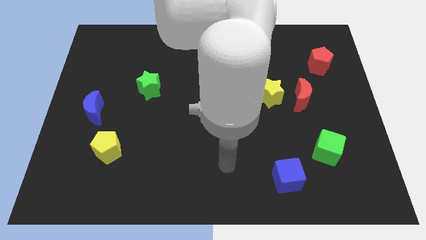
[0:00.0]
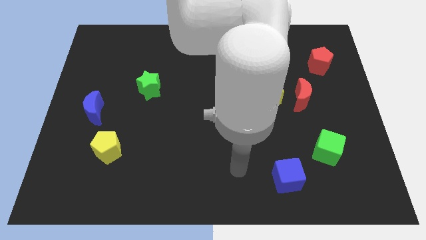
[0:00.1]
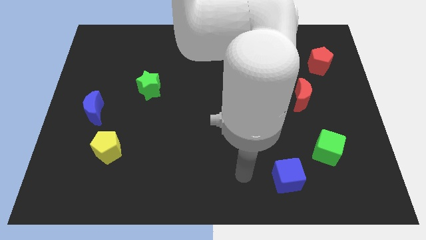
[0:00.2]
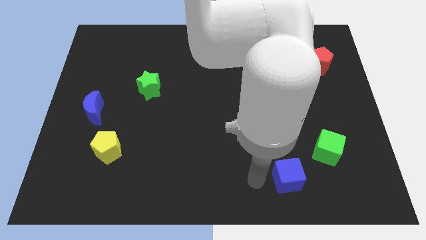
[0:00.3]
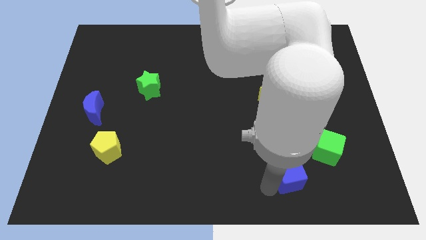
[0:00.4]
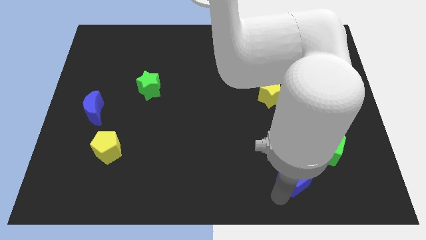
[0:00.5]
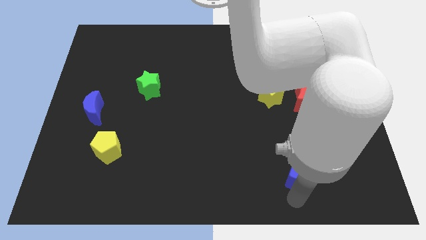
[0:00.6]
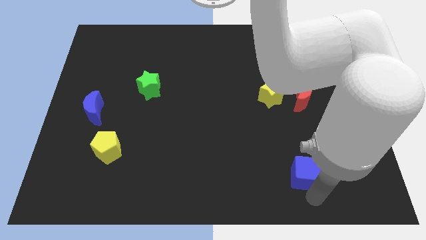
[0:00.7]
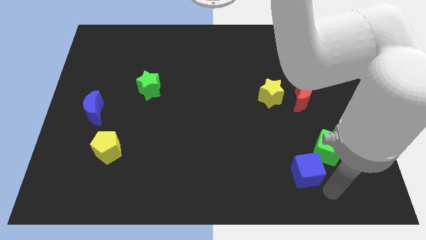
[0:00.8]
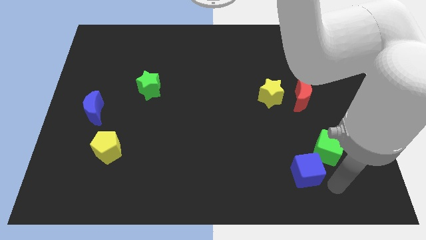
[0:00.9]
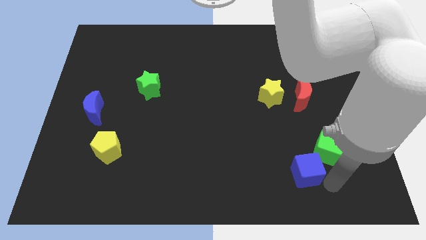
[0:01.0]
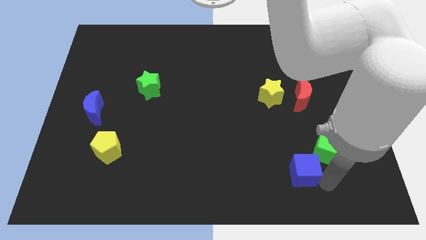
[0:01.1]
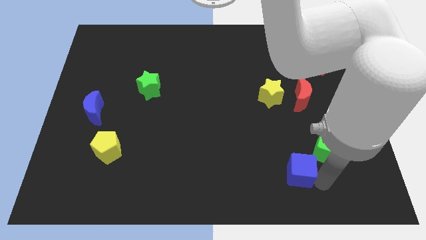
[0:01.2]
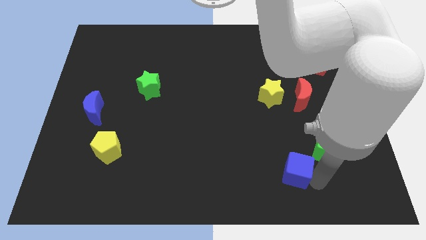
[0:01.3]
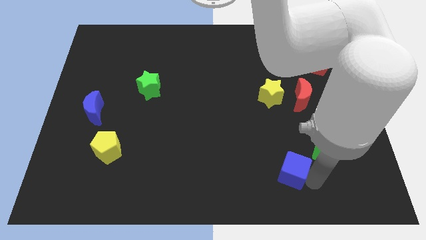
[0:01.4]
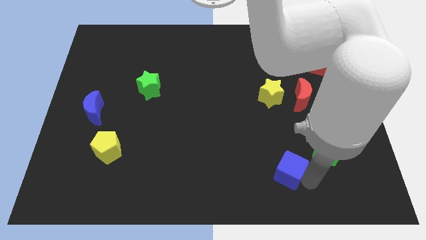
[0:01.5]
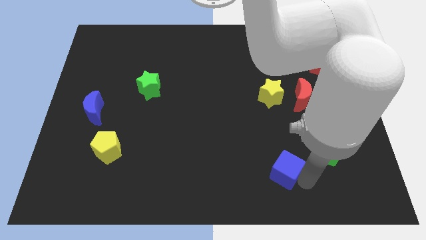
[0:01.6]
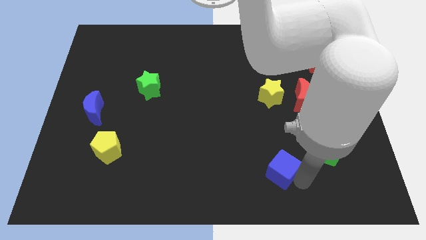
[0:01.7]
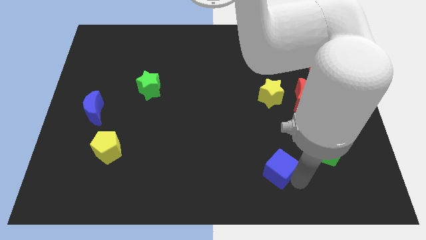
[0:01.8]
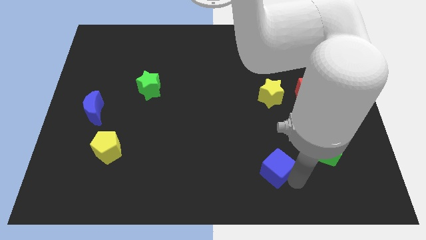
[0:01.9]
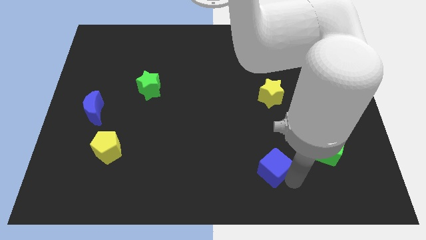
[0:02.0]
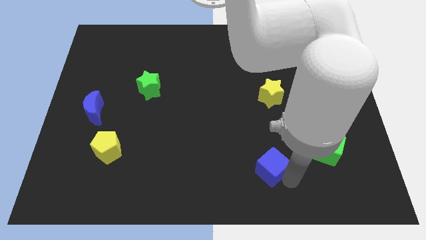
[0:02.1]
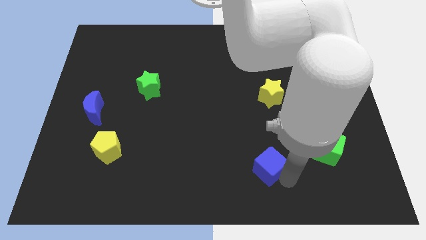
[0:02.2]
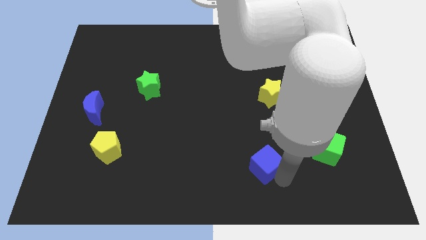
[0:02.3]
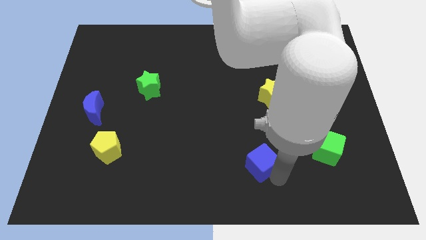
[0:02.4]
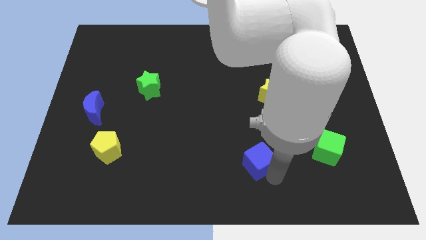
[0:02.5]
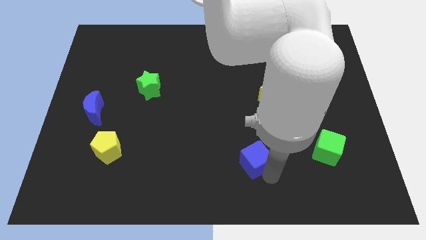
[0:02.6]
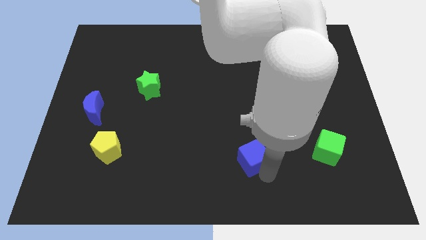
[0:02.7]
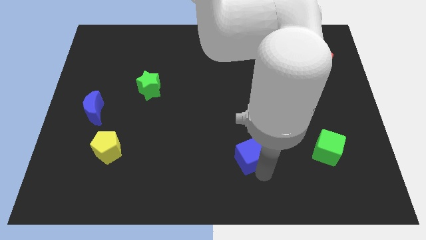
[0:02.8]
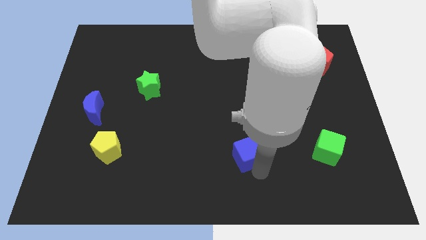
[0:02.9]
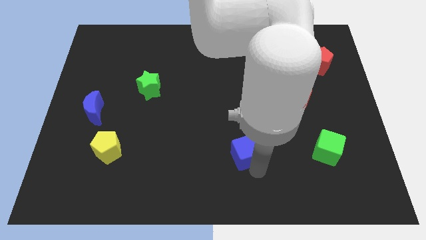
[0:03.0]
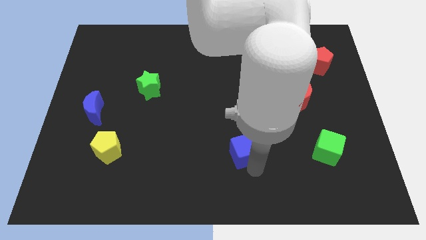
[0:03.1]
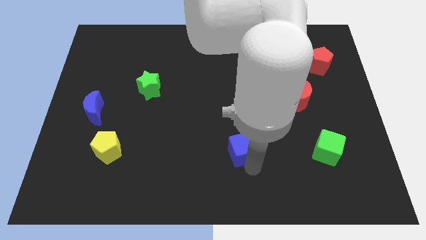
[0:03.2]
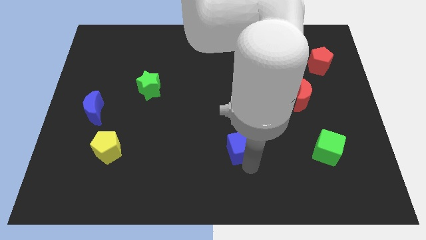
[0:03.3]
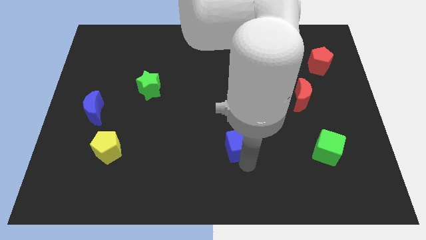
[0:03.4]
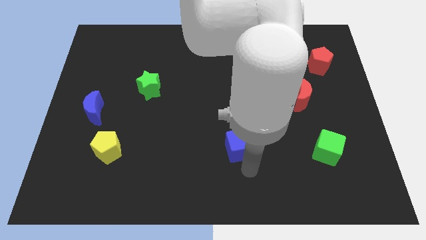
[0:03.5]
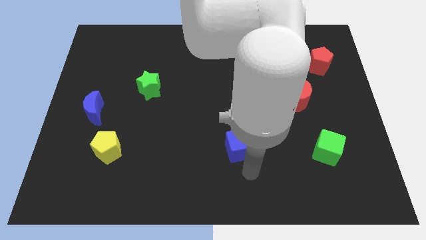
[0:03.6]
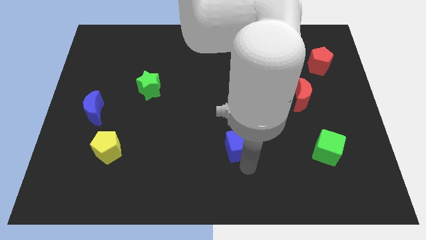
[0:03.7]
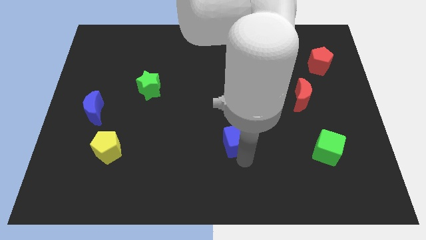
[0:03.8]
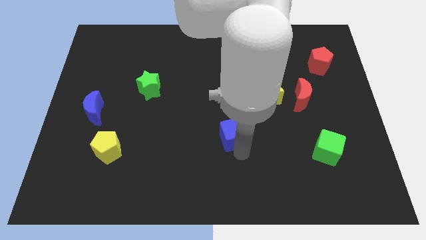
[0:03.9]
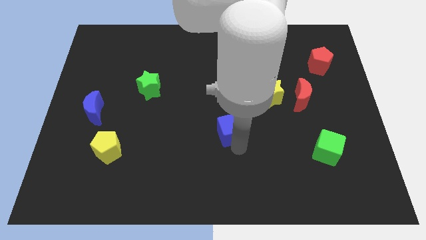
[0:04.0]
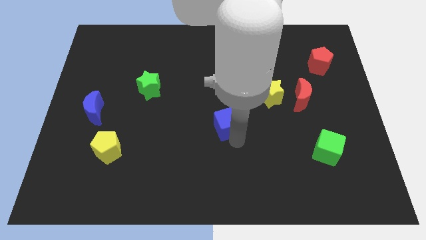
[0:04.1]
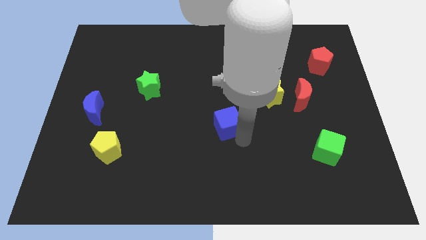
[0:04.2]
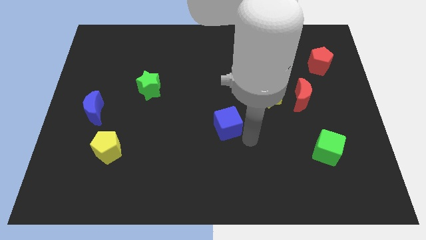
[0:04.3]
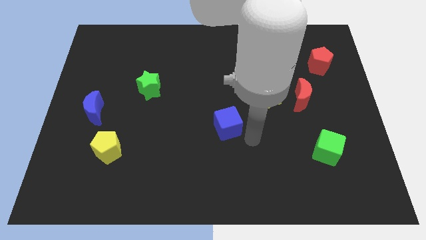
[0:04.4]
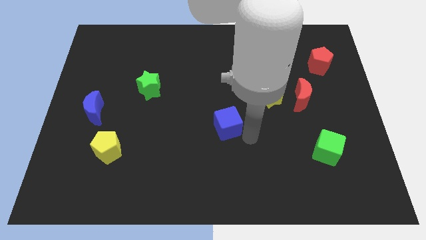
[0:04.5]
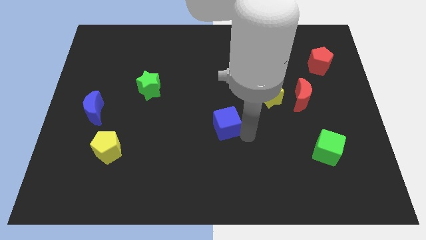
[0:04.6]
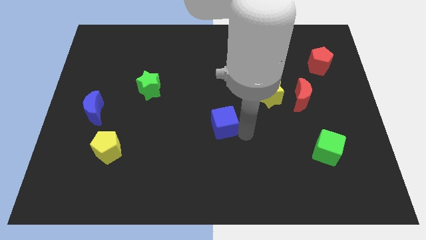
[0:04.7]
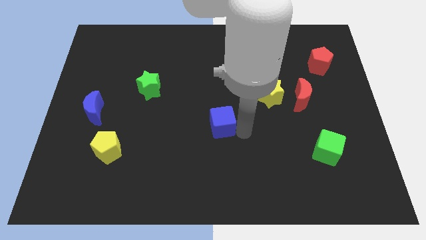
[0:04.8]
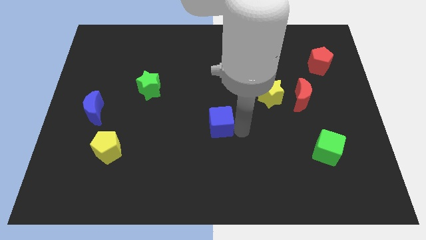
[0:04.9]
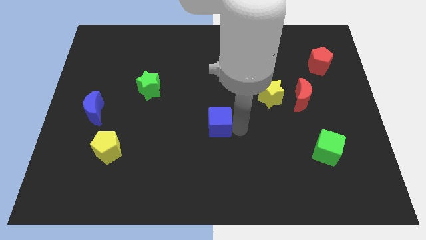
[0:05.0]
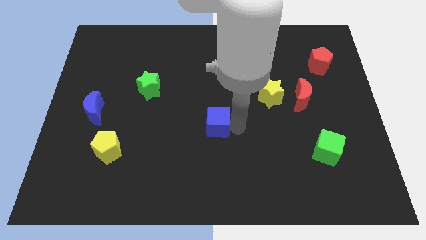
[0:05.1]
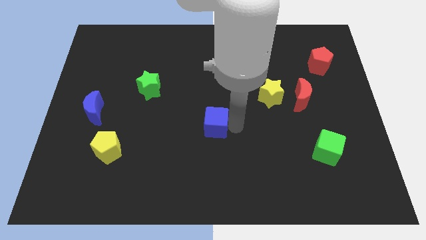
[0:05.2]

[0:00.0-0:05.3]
push the blue cube diagonally up and left

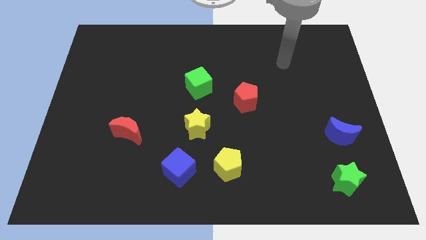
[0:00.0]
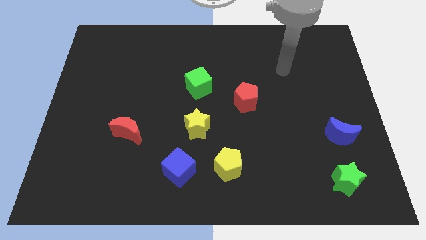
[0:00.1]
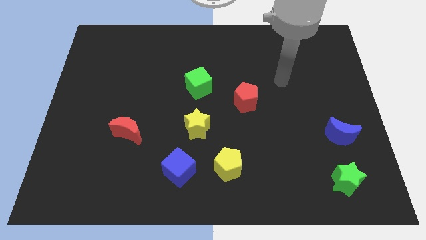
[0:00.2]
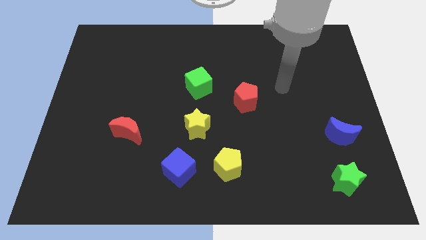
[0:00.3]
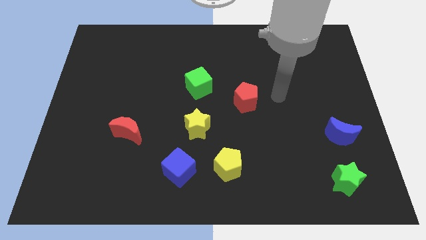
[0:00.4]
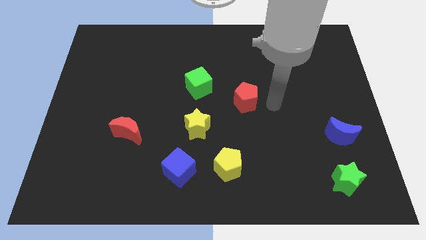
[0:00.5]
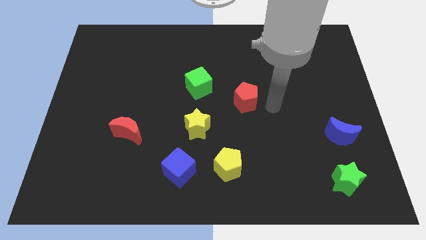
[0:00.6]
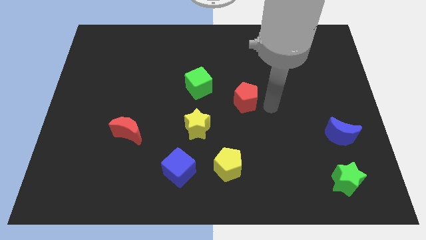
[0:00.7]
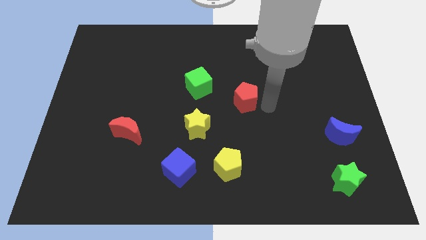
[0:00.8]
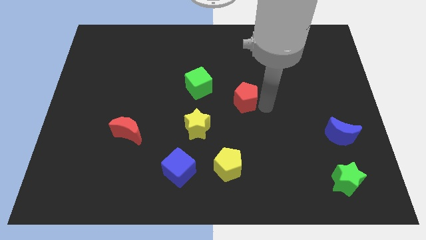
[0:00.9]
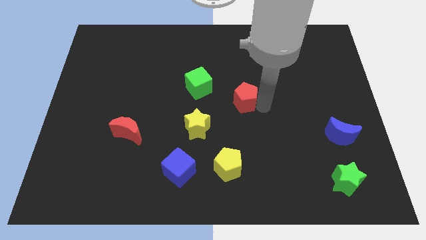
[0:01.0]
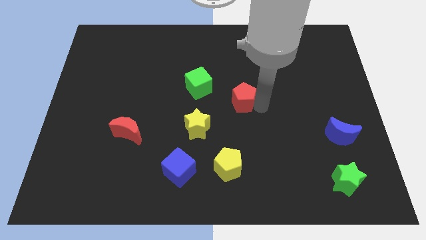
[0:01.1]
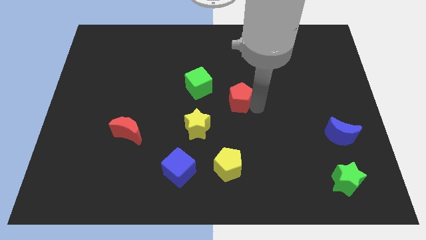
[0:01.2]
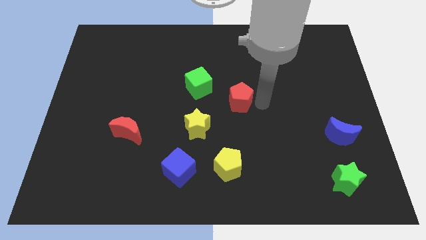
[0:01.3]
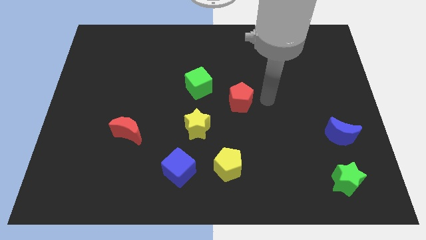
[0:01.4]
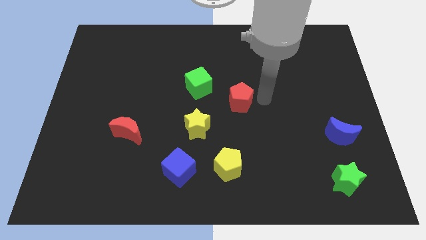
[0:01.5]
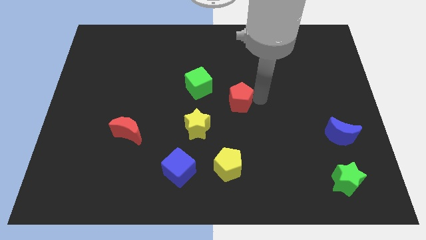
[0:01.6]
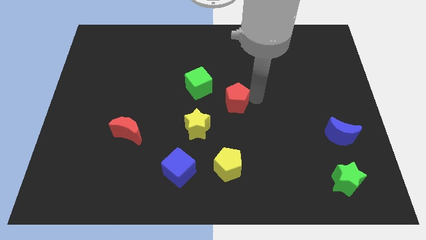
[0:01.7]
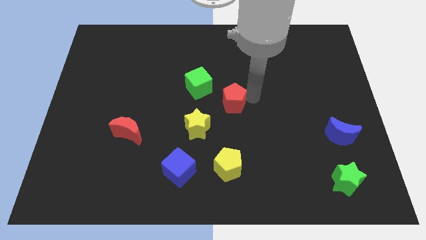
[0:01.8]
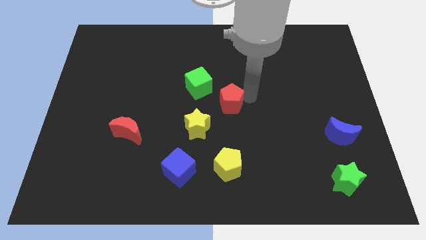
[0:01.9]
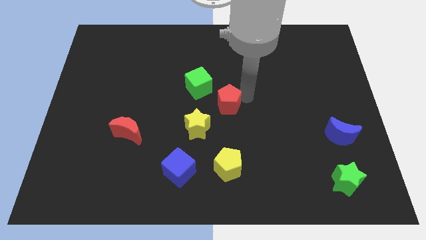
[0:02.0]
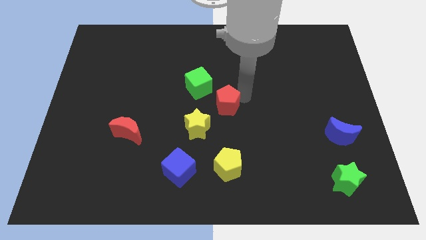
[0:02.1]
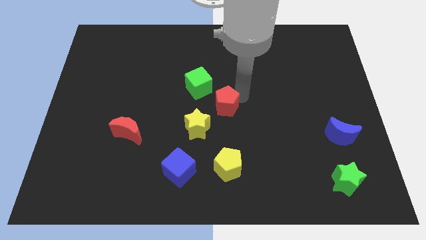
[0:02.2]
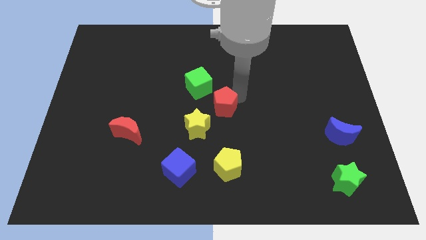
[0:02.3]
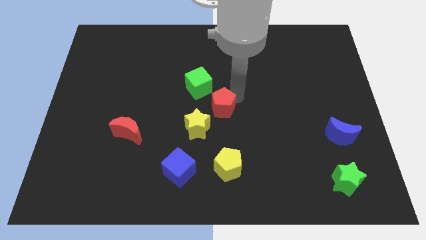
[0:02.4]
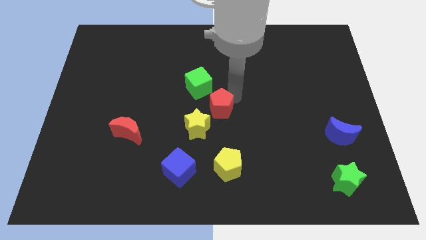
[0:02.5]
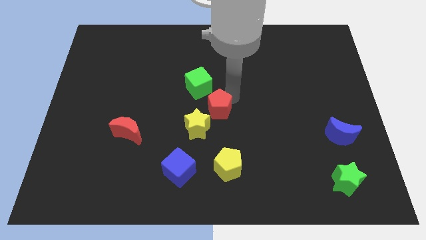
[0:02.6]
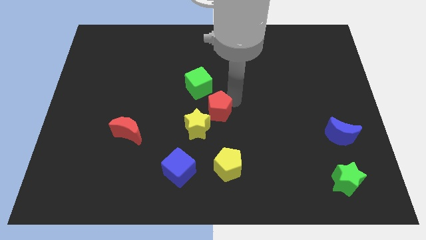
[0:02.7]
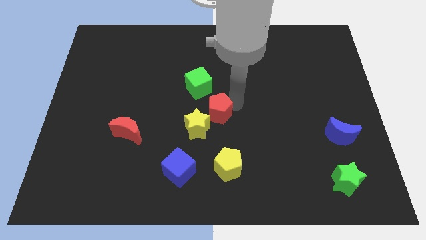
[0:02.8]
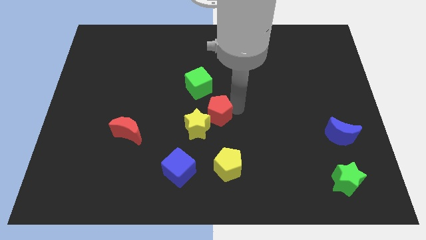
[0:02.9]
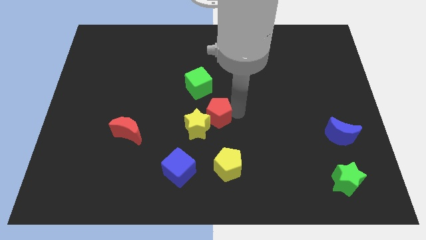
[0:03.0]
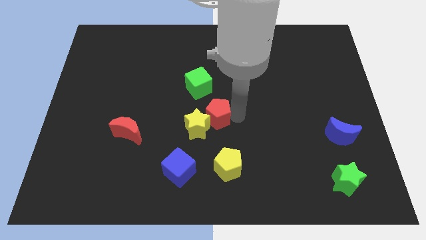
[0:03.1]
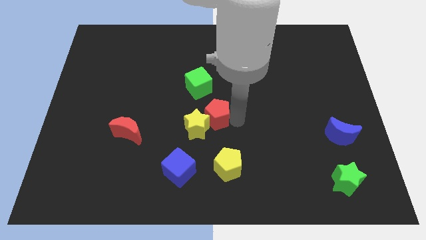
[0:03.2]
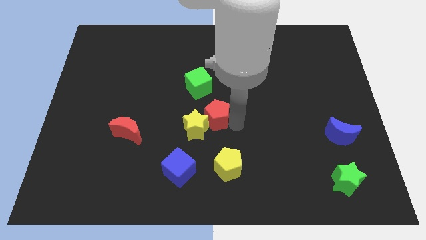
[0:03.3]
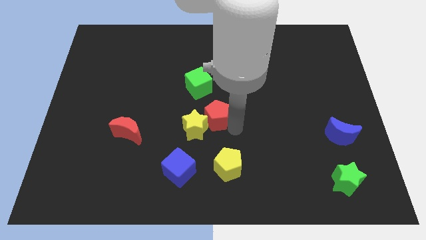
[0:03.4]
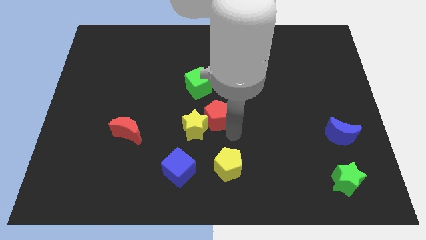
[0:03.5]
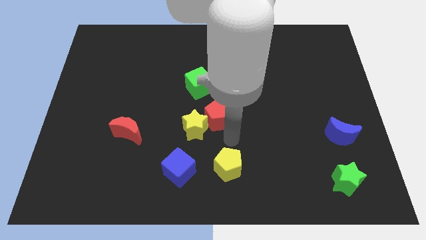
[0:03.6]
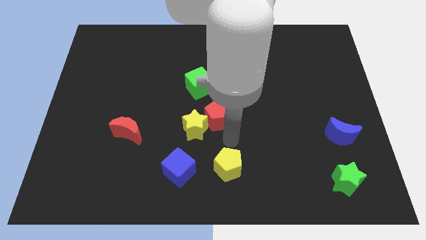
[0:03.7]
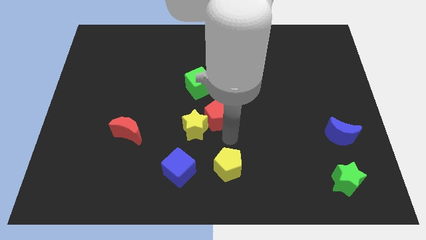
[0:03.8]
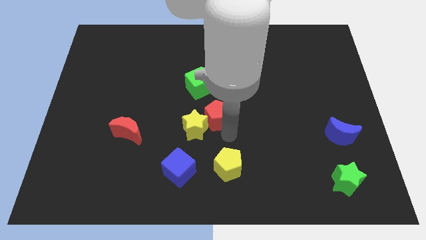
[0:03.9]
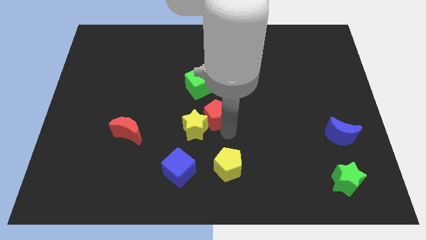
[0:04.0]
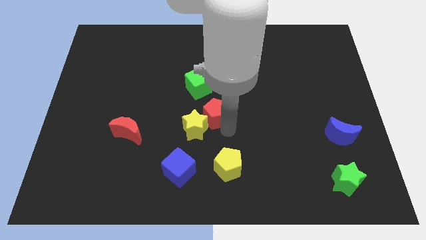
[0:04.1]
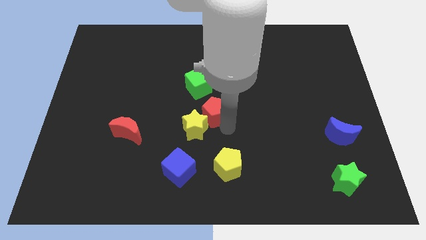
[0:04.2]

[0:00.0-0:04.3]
slightly move the red pentagon to the left
